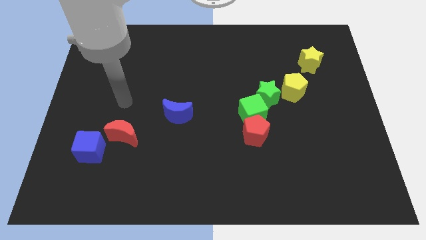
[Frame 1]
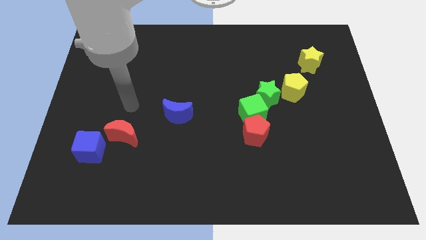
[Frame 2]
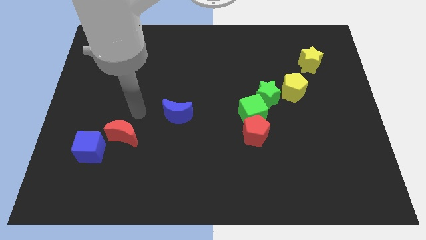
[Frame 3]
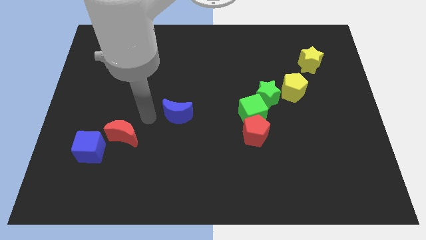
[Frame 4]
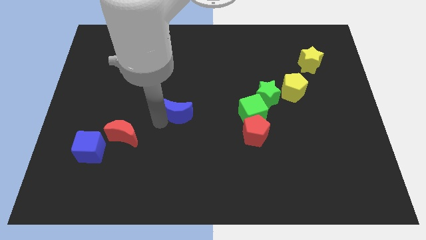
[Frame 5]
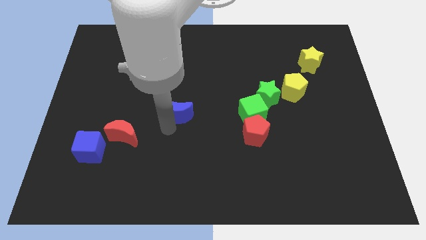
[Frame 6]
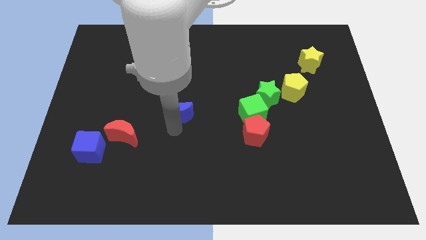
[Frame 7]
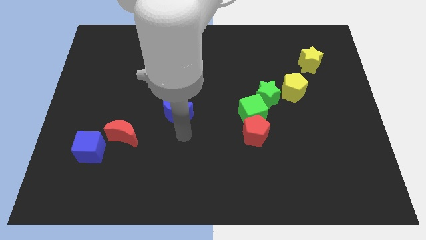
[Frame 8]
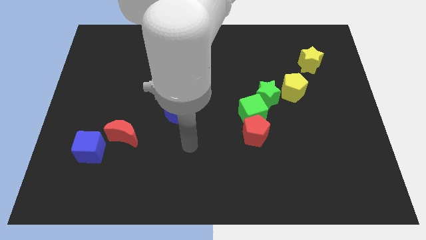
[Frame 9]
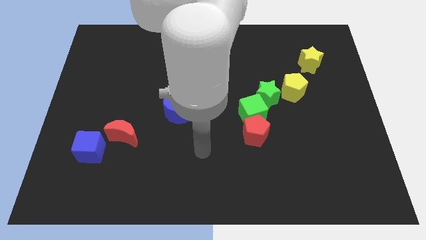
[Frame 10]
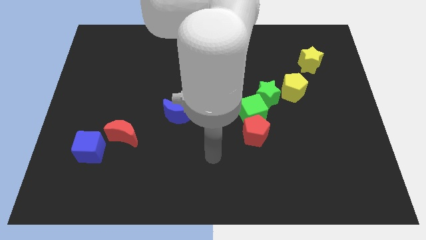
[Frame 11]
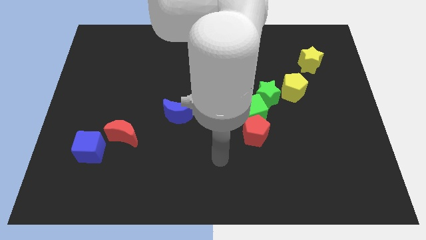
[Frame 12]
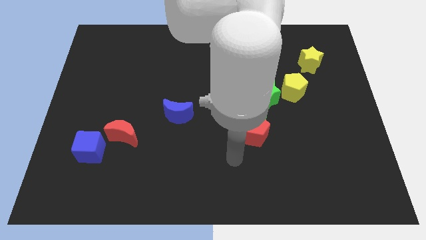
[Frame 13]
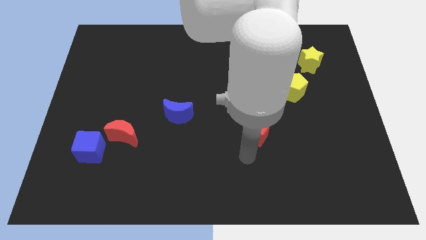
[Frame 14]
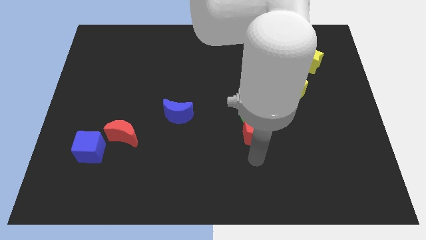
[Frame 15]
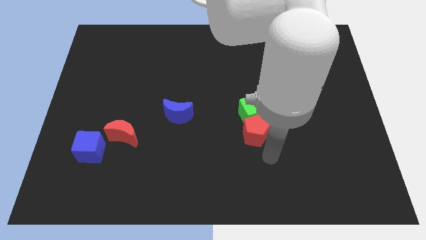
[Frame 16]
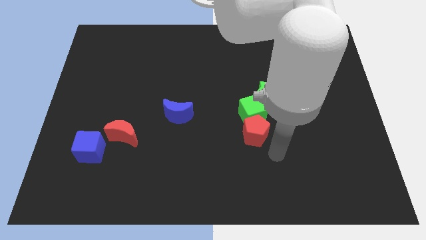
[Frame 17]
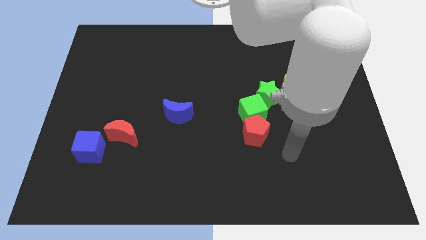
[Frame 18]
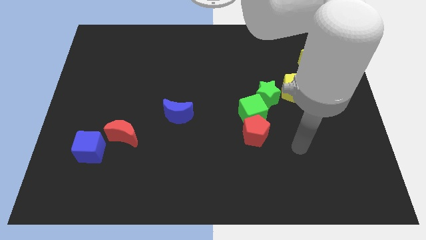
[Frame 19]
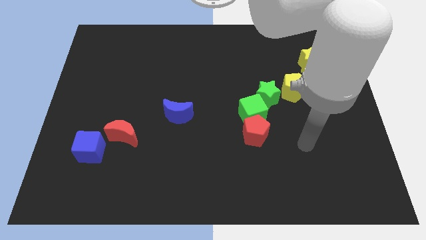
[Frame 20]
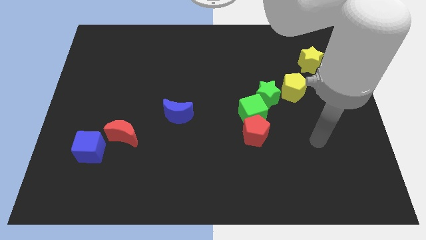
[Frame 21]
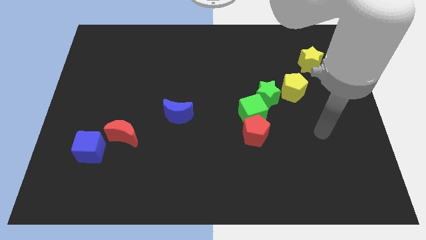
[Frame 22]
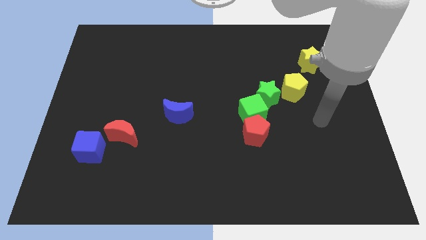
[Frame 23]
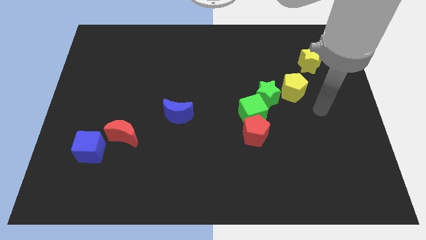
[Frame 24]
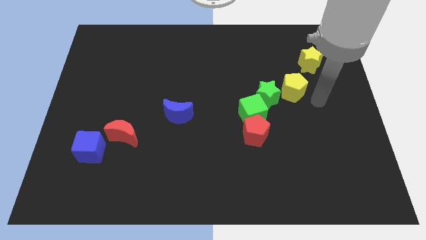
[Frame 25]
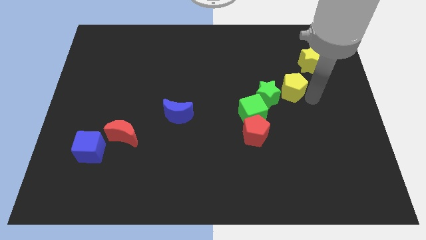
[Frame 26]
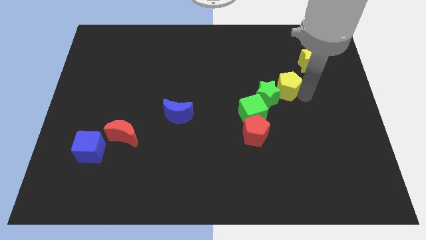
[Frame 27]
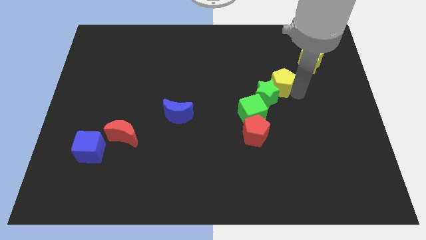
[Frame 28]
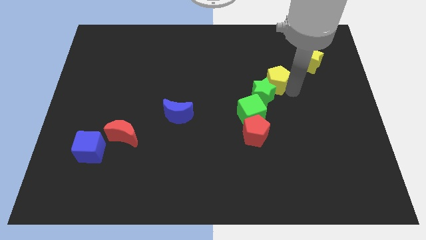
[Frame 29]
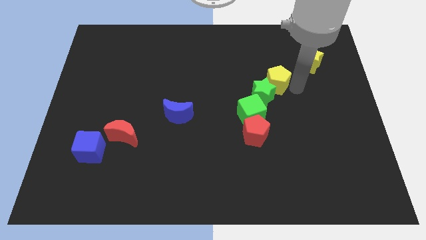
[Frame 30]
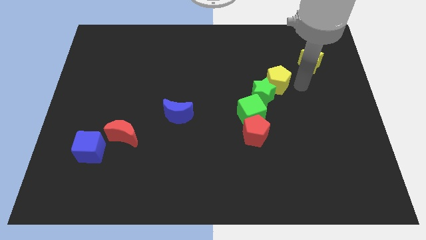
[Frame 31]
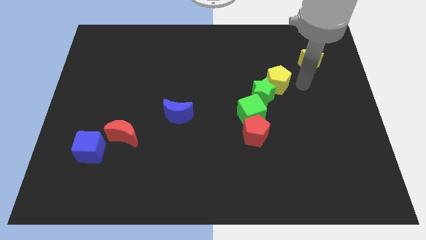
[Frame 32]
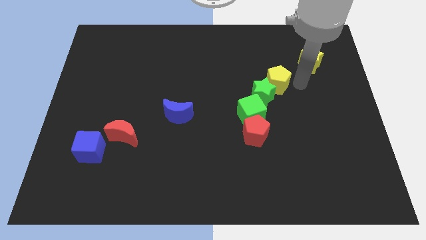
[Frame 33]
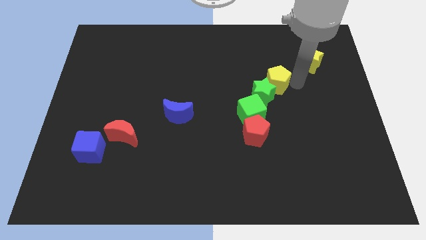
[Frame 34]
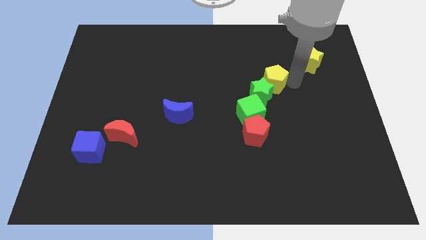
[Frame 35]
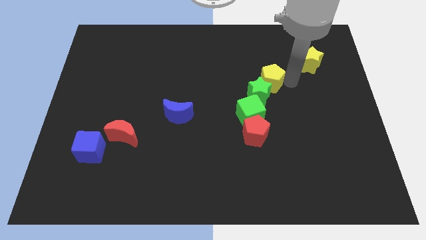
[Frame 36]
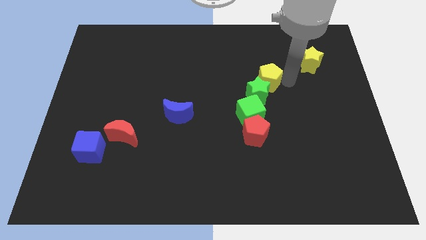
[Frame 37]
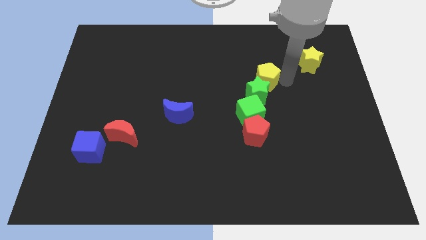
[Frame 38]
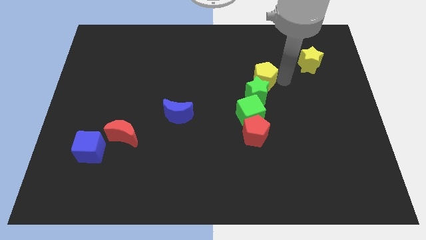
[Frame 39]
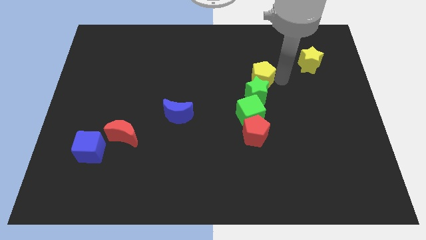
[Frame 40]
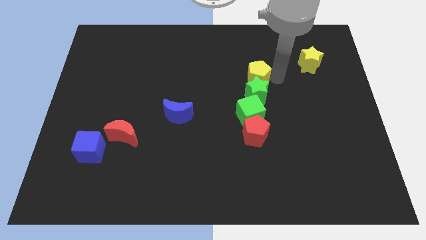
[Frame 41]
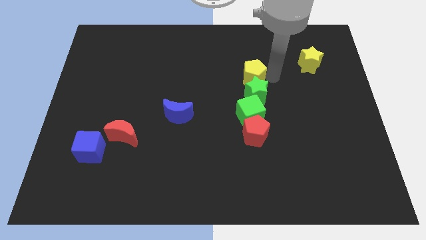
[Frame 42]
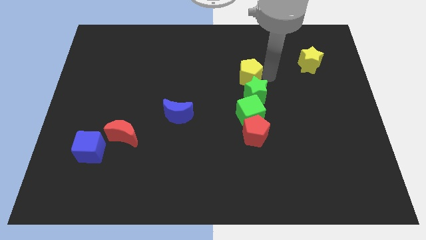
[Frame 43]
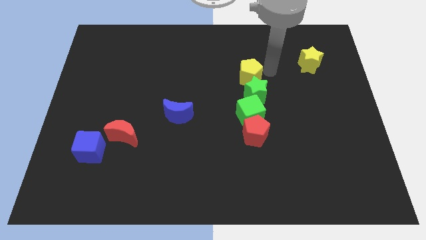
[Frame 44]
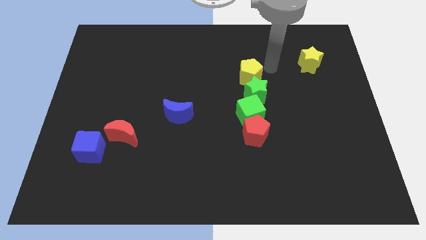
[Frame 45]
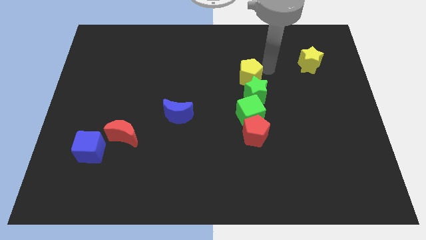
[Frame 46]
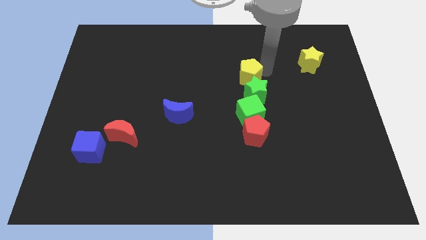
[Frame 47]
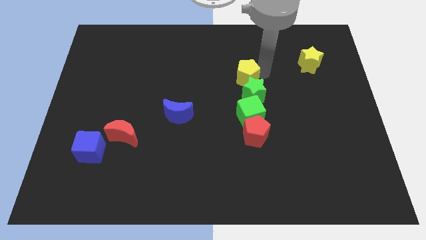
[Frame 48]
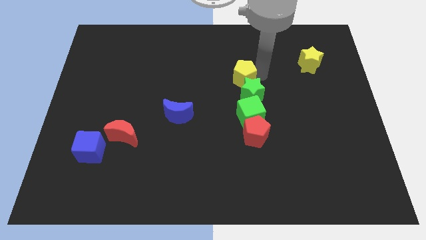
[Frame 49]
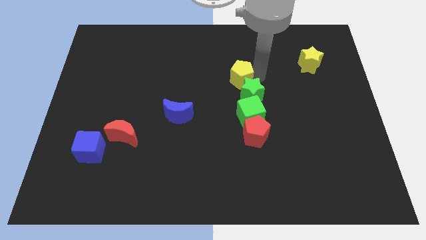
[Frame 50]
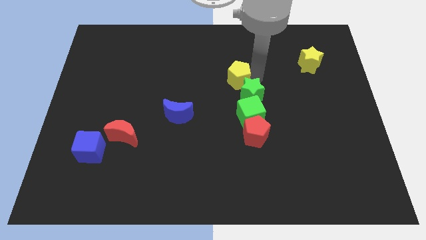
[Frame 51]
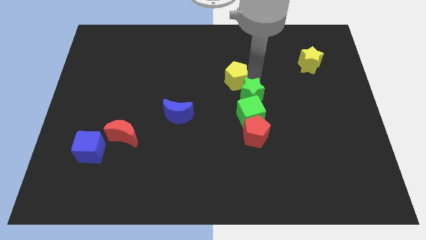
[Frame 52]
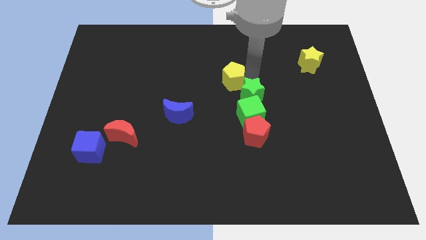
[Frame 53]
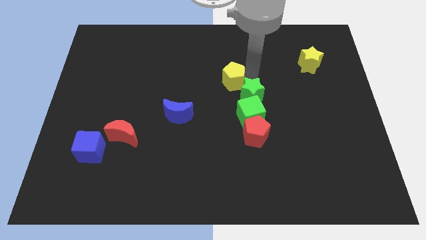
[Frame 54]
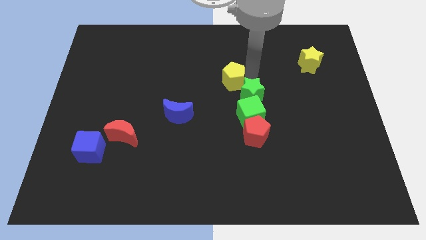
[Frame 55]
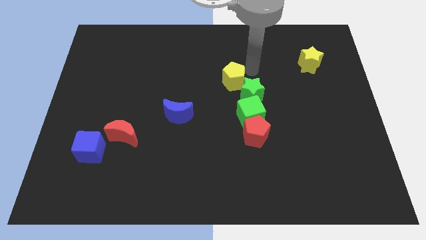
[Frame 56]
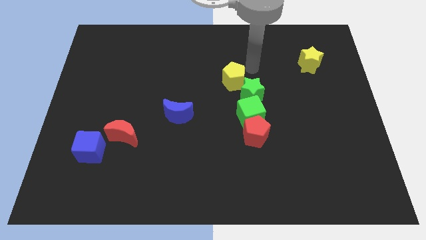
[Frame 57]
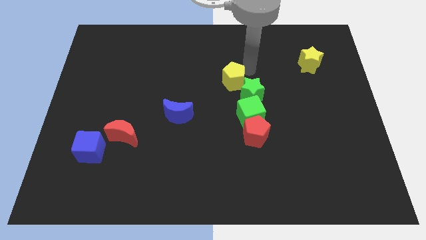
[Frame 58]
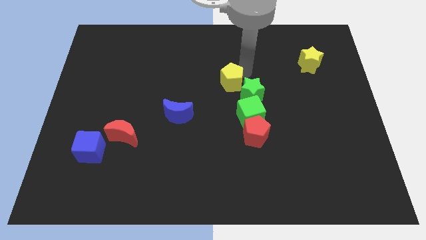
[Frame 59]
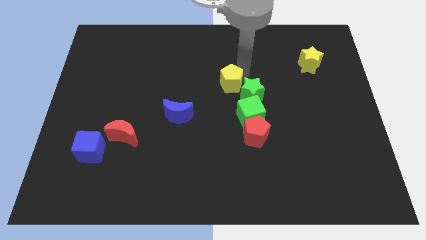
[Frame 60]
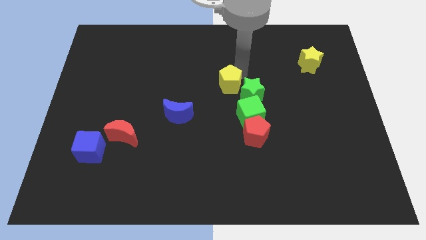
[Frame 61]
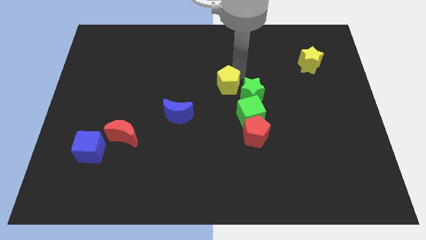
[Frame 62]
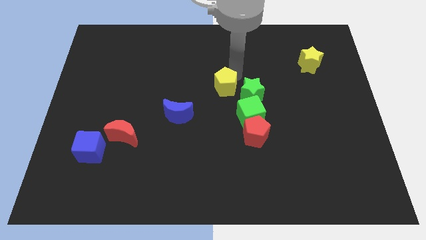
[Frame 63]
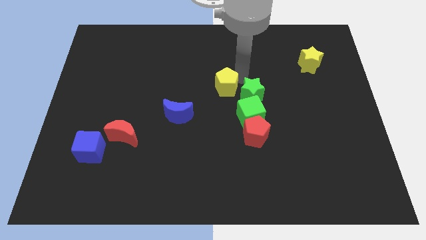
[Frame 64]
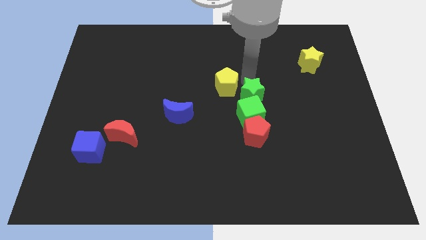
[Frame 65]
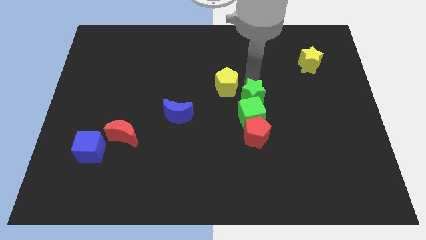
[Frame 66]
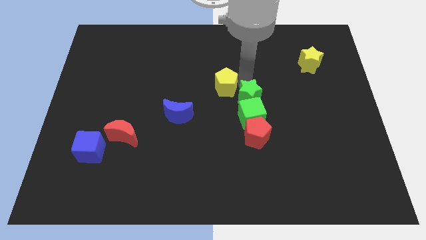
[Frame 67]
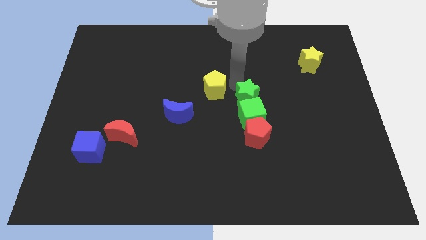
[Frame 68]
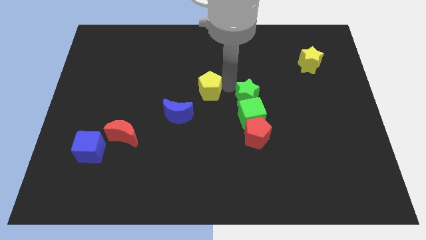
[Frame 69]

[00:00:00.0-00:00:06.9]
move the yellow pentagon to the left

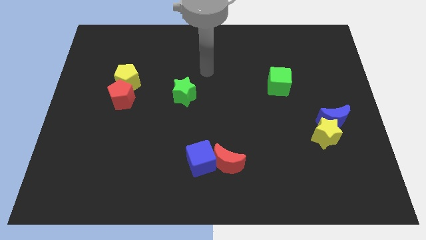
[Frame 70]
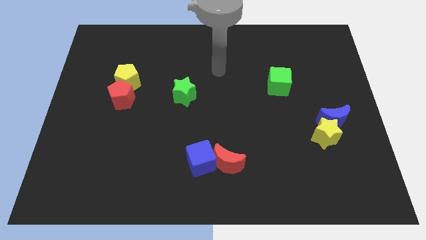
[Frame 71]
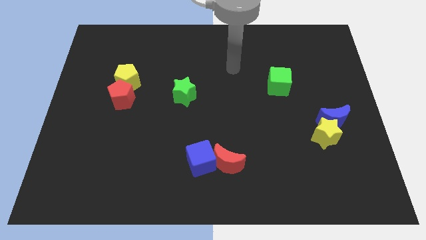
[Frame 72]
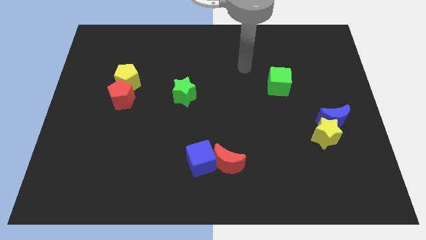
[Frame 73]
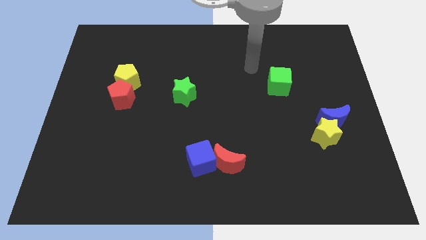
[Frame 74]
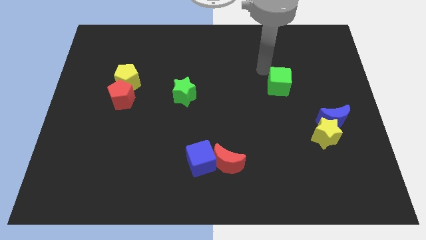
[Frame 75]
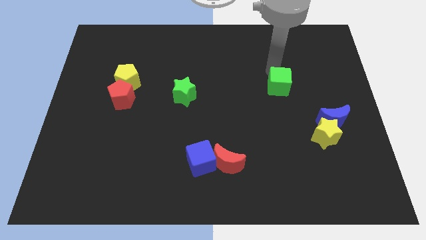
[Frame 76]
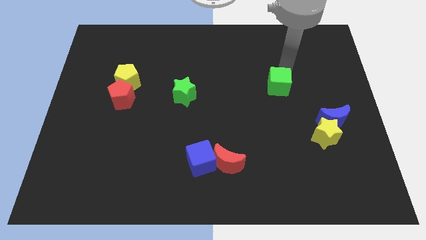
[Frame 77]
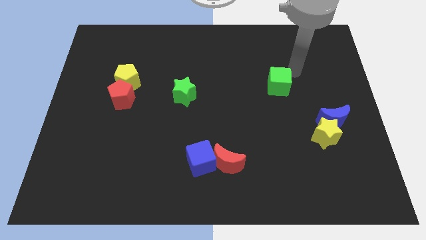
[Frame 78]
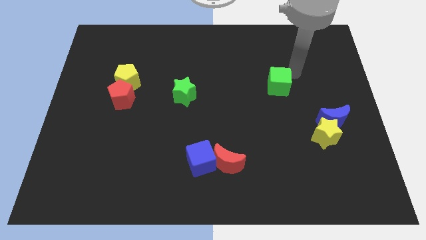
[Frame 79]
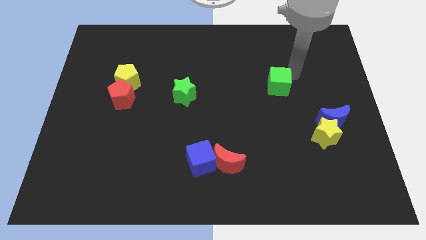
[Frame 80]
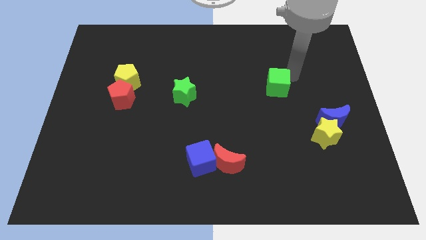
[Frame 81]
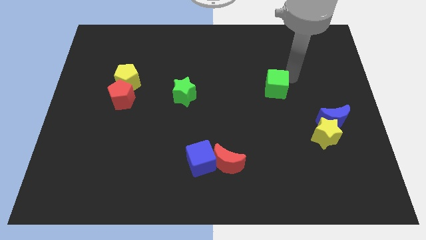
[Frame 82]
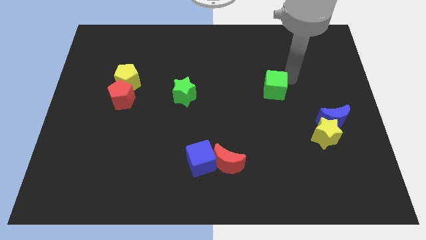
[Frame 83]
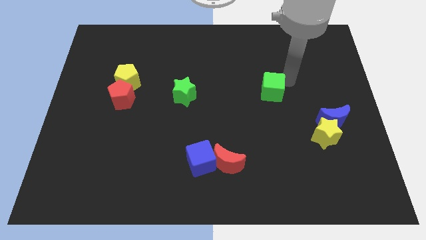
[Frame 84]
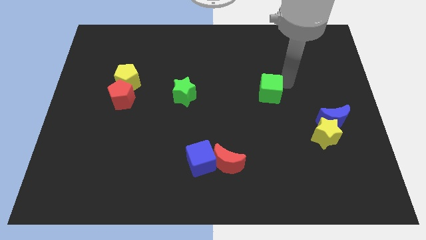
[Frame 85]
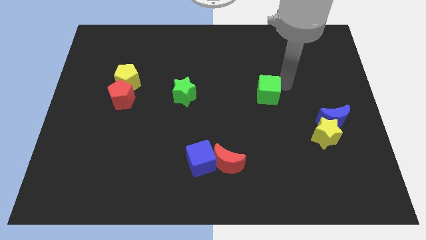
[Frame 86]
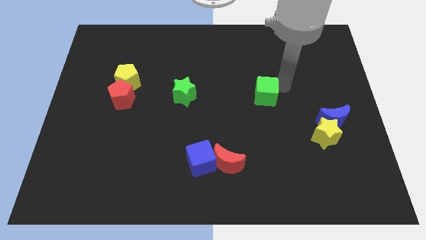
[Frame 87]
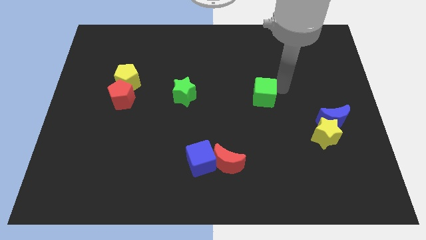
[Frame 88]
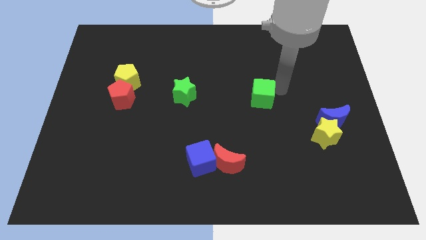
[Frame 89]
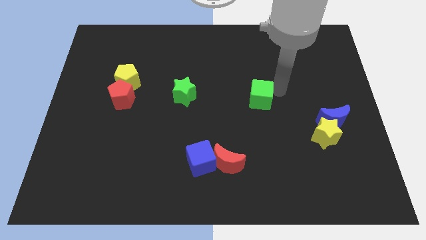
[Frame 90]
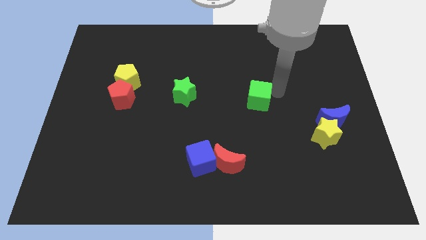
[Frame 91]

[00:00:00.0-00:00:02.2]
slide the green cube a little bit down and to the left
